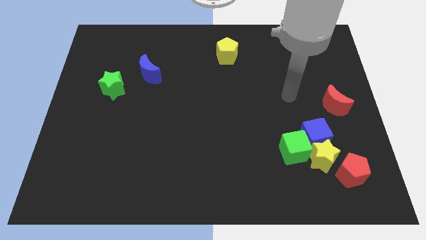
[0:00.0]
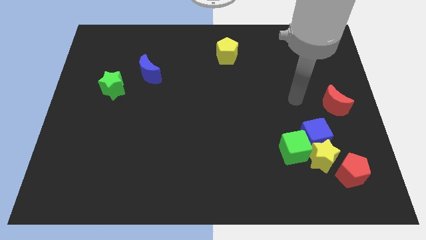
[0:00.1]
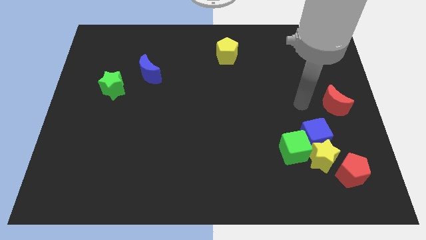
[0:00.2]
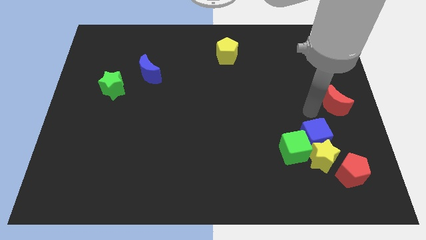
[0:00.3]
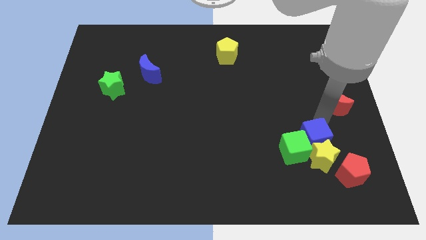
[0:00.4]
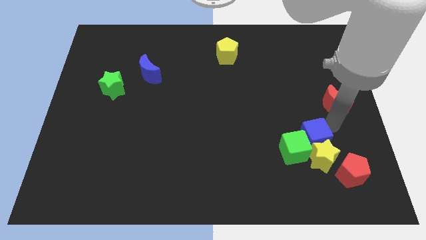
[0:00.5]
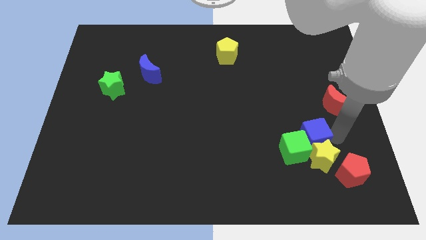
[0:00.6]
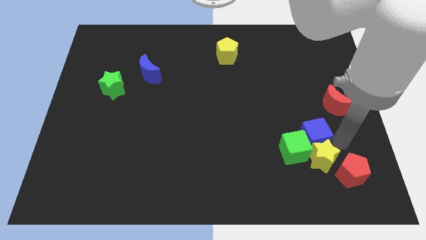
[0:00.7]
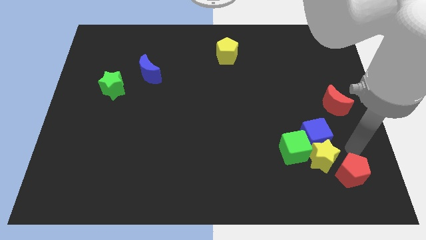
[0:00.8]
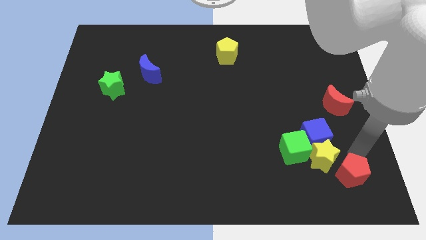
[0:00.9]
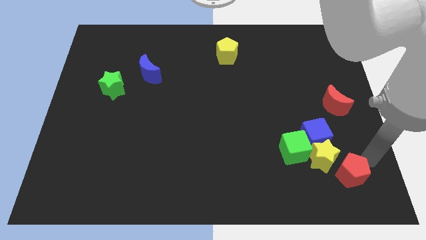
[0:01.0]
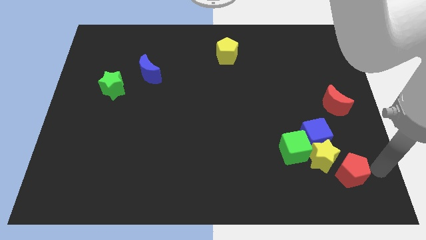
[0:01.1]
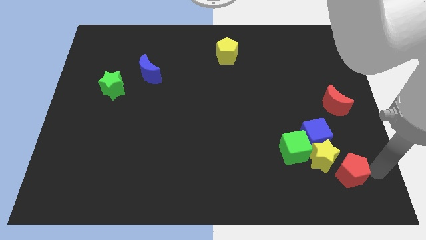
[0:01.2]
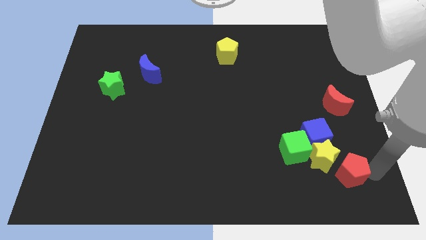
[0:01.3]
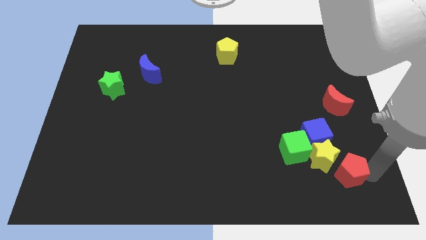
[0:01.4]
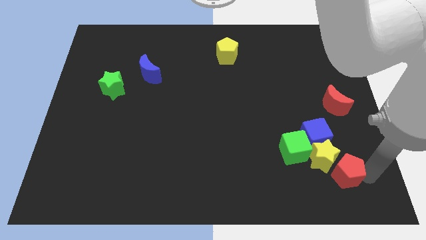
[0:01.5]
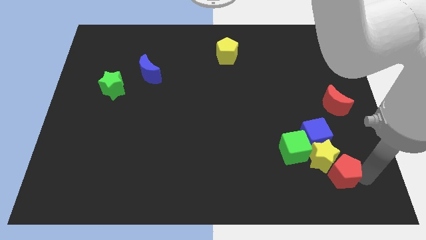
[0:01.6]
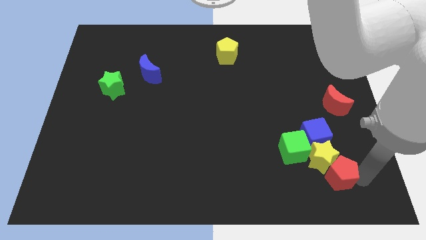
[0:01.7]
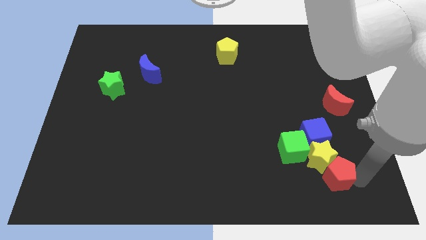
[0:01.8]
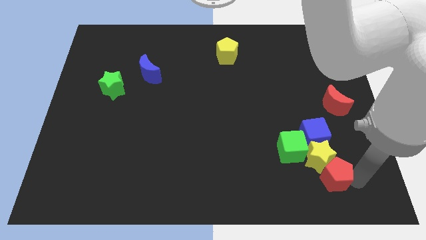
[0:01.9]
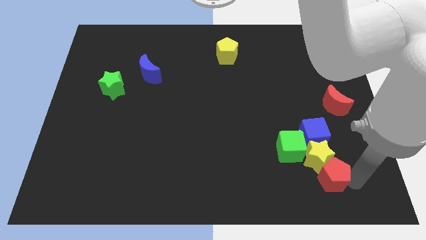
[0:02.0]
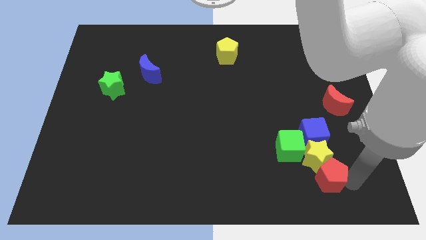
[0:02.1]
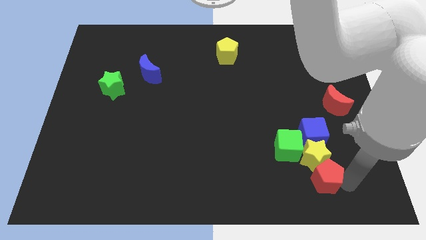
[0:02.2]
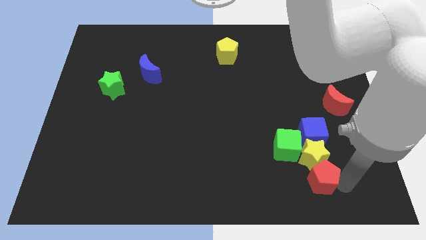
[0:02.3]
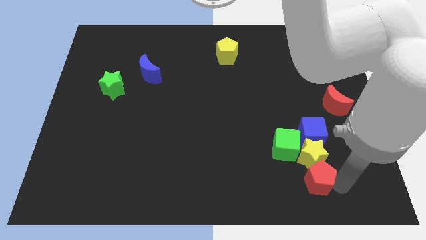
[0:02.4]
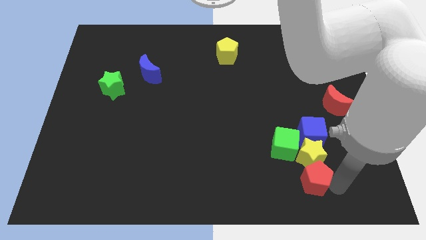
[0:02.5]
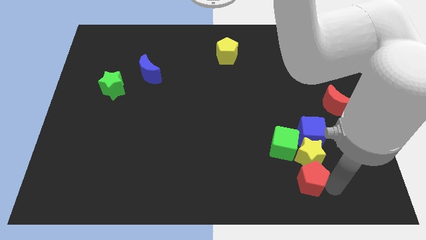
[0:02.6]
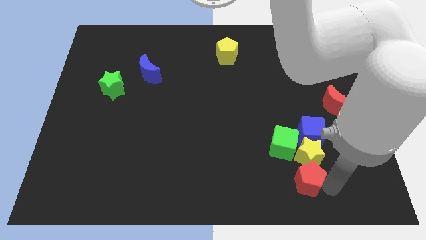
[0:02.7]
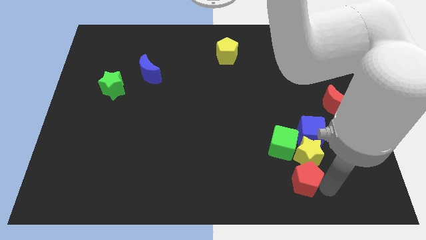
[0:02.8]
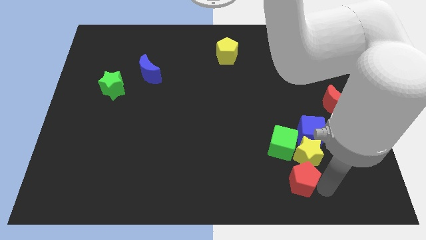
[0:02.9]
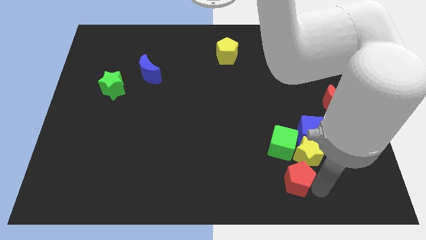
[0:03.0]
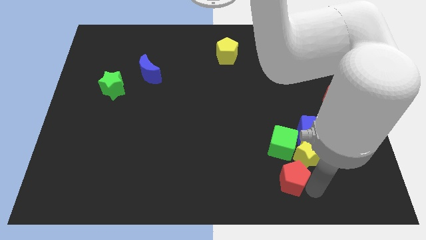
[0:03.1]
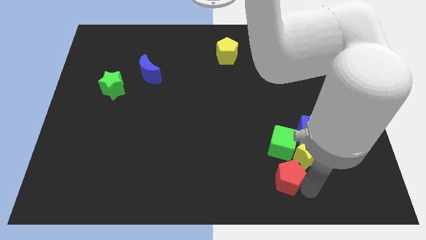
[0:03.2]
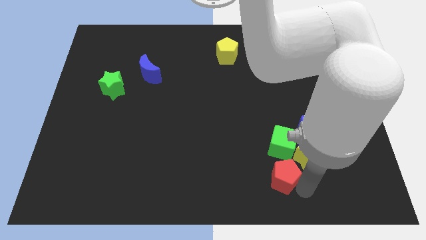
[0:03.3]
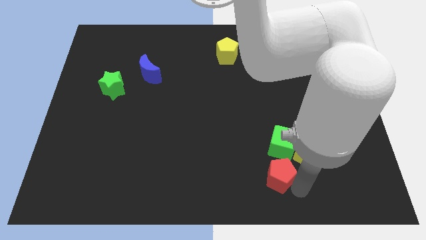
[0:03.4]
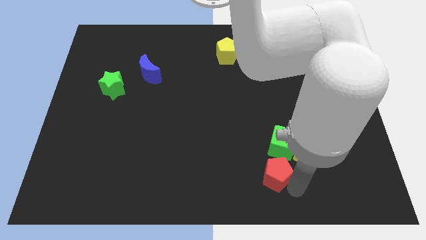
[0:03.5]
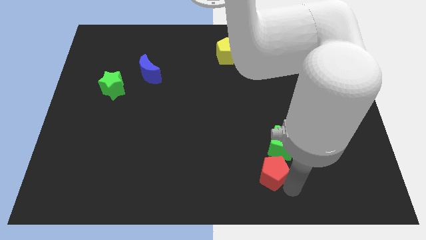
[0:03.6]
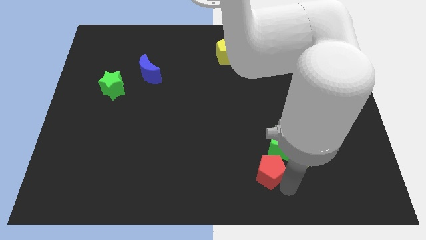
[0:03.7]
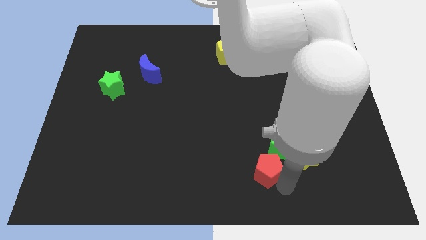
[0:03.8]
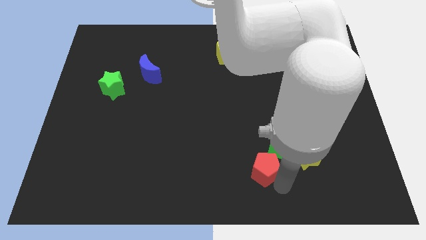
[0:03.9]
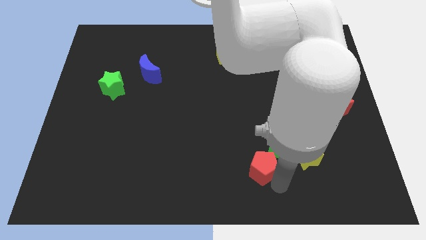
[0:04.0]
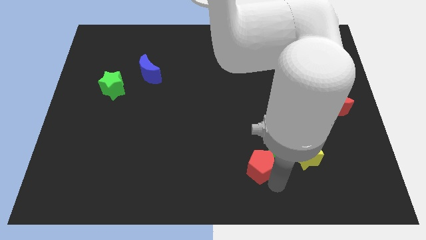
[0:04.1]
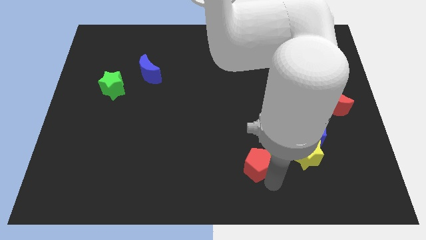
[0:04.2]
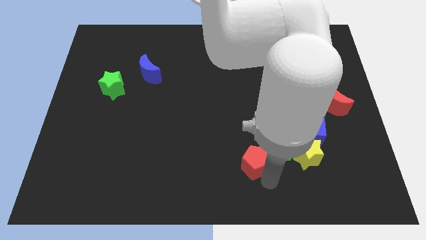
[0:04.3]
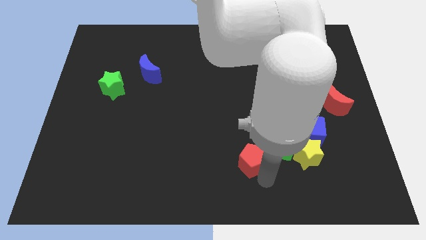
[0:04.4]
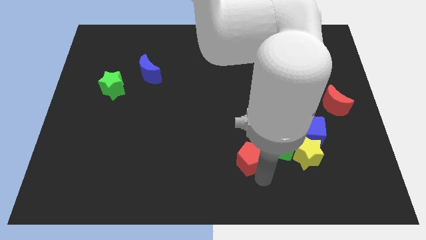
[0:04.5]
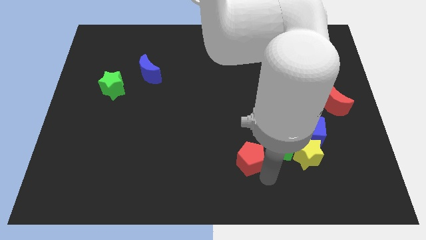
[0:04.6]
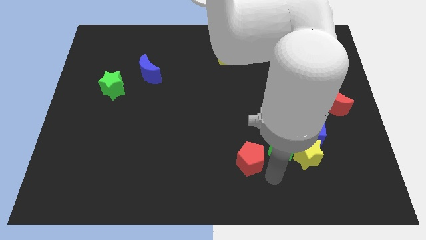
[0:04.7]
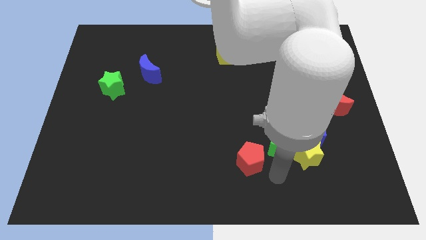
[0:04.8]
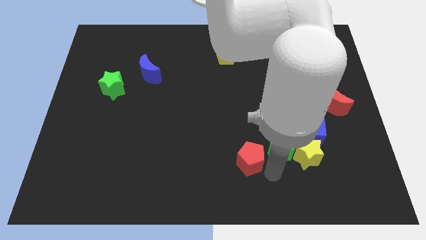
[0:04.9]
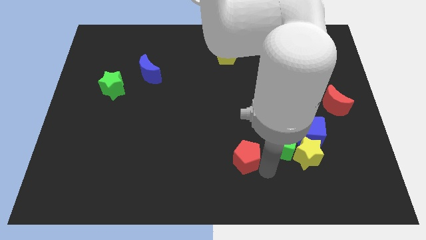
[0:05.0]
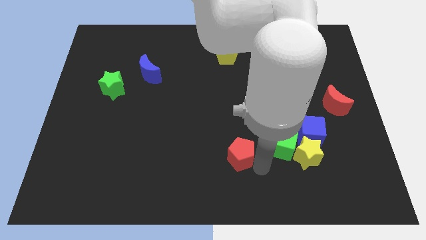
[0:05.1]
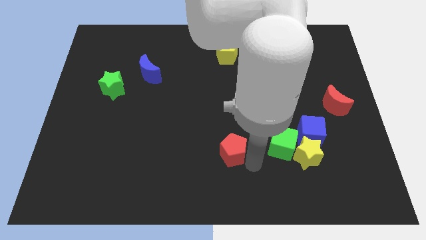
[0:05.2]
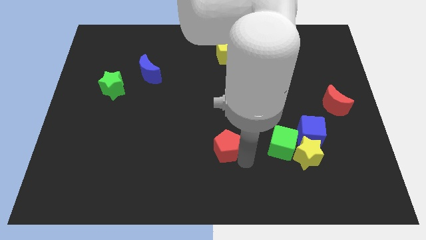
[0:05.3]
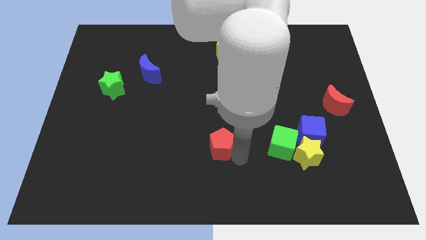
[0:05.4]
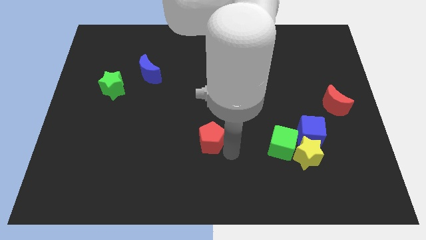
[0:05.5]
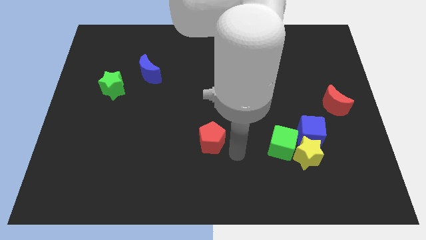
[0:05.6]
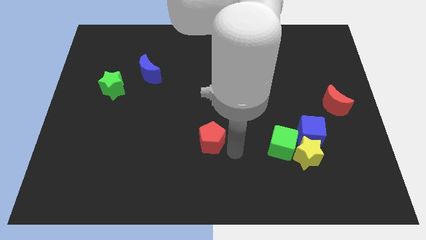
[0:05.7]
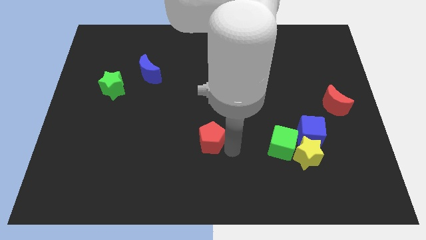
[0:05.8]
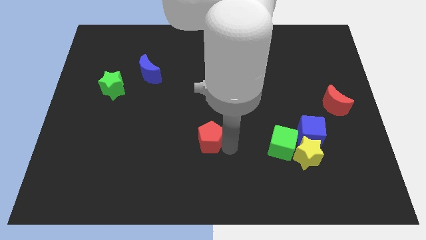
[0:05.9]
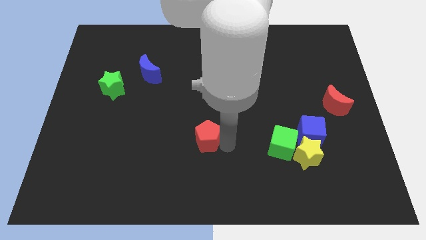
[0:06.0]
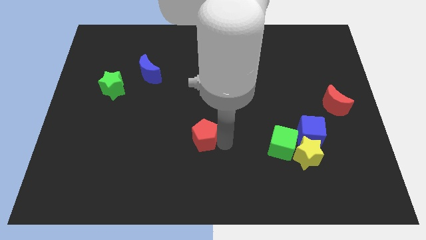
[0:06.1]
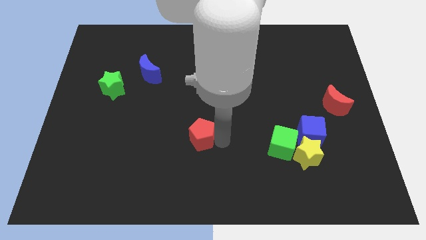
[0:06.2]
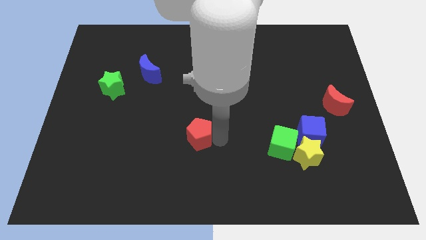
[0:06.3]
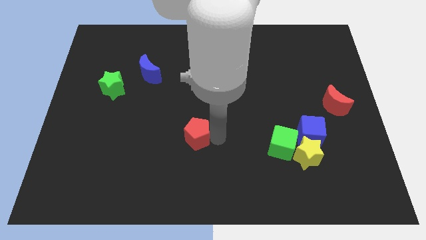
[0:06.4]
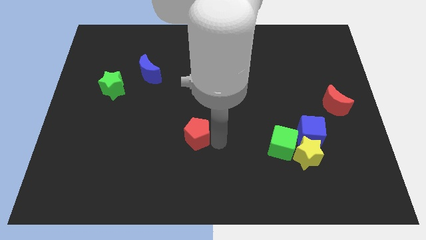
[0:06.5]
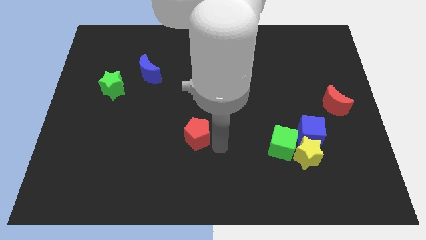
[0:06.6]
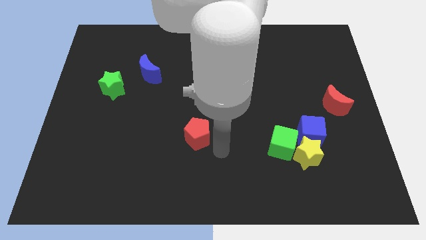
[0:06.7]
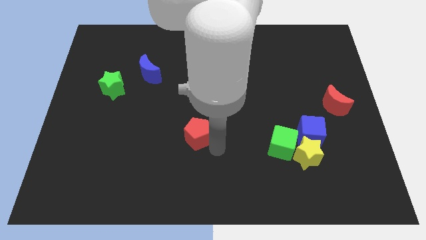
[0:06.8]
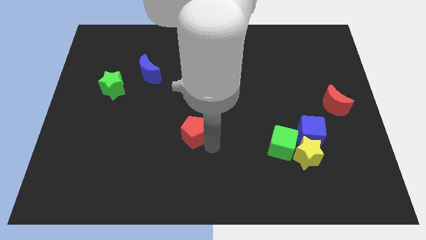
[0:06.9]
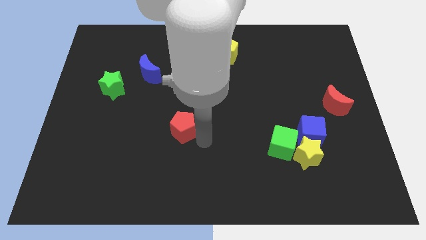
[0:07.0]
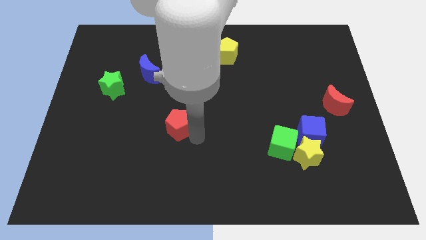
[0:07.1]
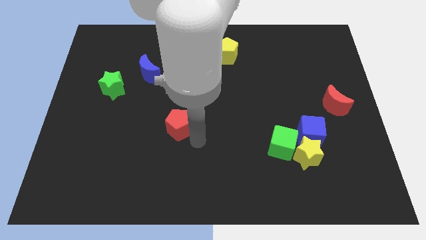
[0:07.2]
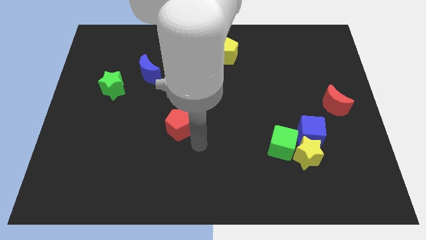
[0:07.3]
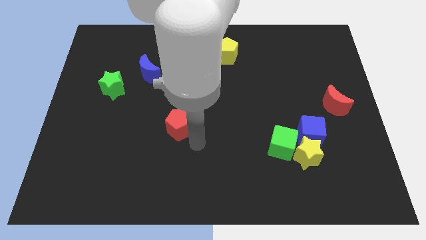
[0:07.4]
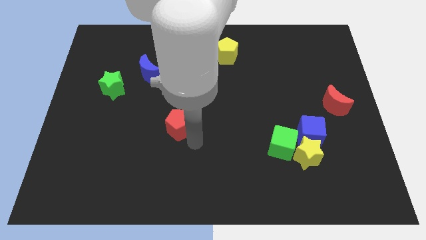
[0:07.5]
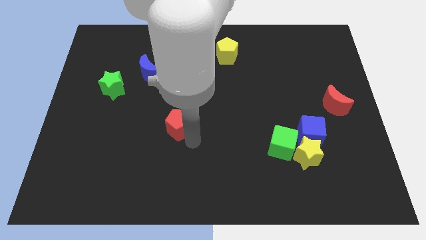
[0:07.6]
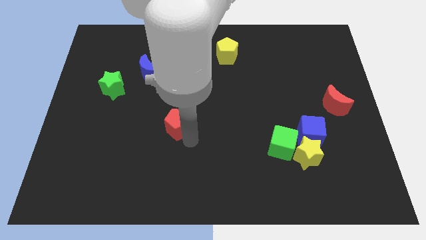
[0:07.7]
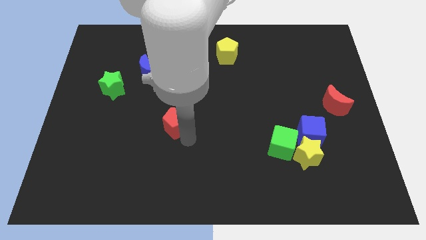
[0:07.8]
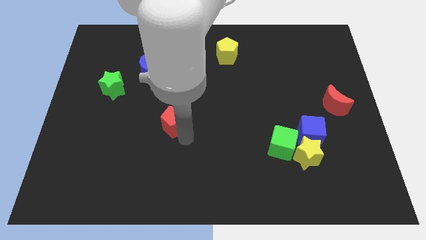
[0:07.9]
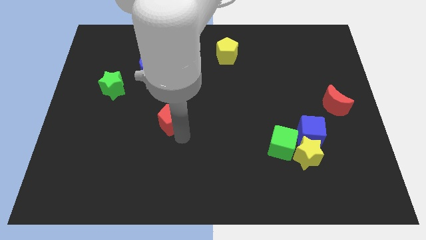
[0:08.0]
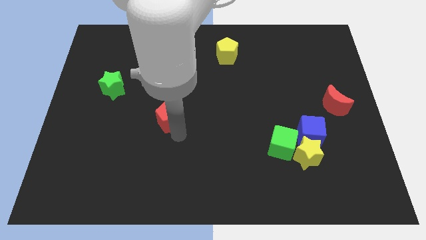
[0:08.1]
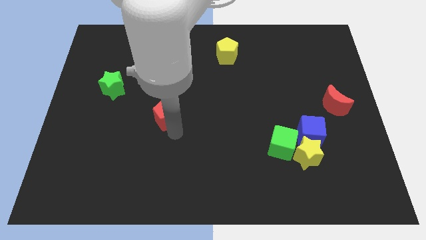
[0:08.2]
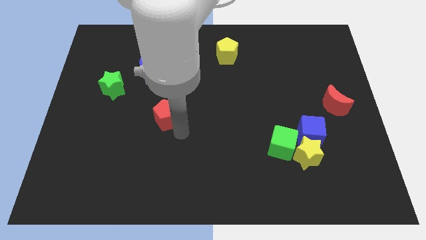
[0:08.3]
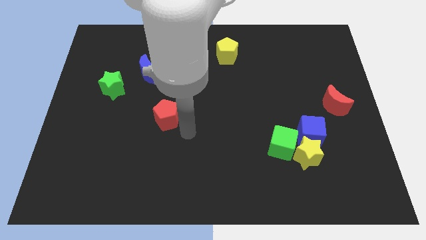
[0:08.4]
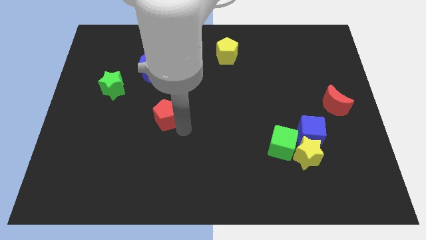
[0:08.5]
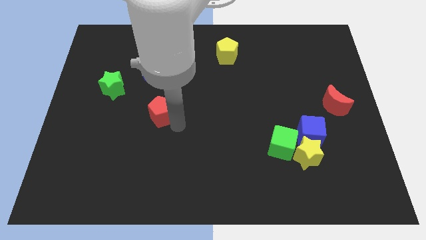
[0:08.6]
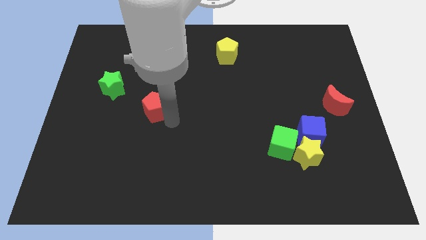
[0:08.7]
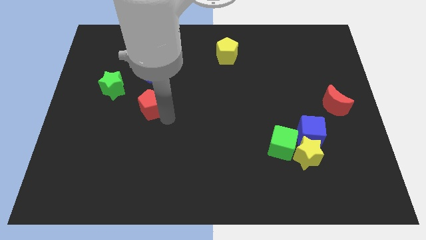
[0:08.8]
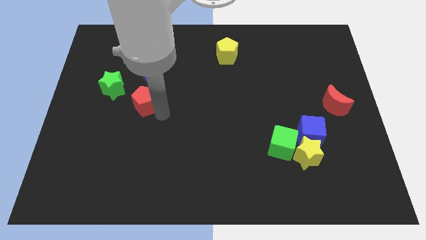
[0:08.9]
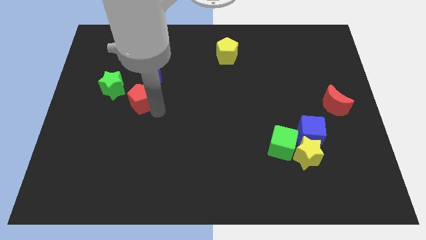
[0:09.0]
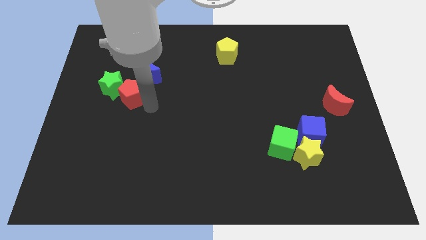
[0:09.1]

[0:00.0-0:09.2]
push the red pentagon to the green star
